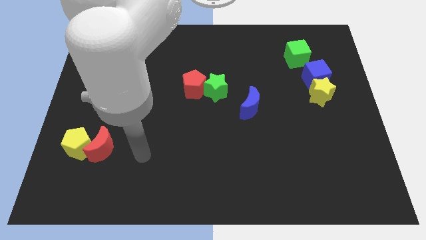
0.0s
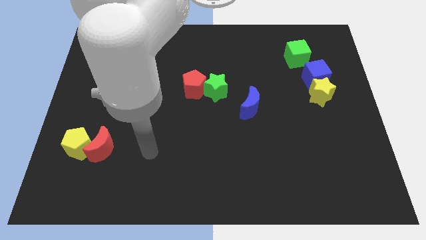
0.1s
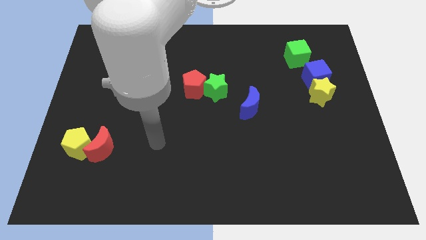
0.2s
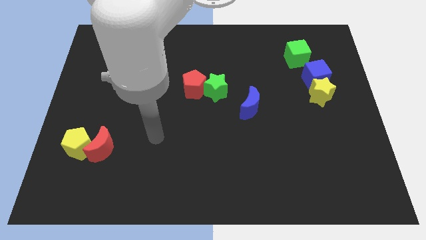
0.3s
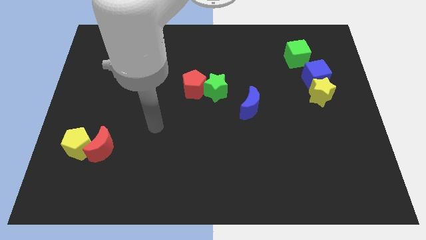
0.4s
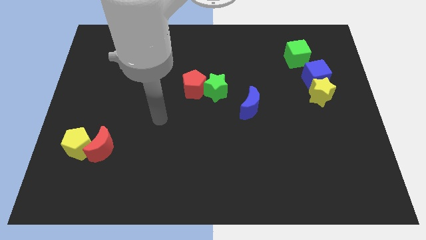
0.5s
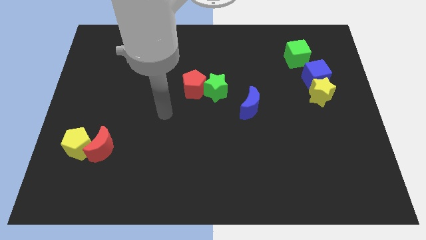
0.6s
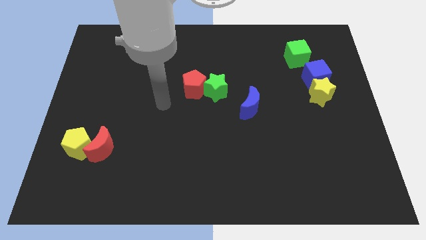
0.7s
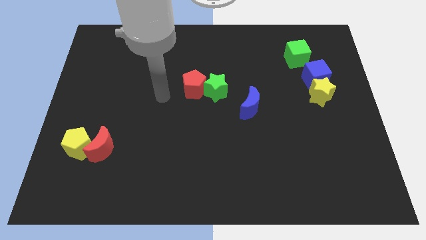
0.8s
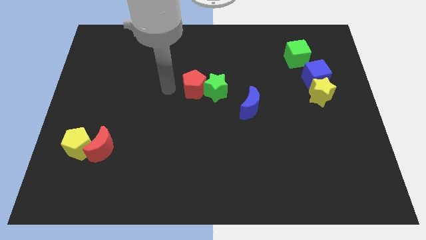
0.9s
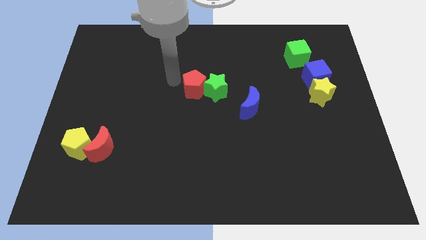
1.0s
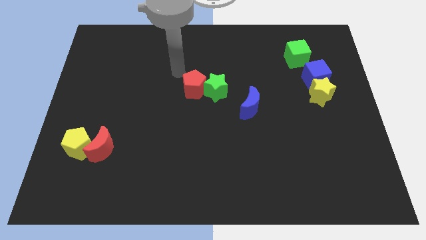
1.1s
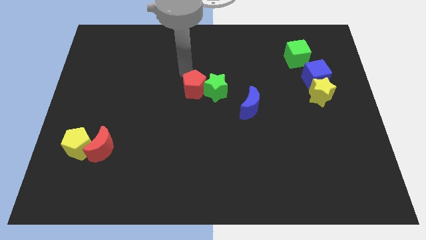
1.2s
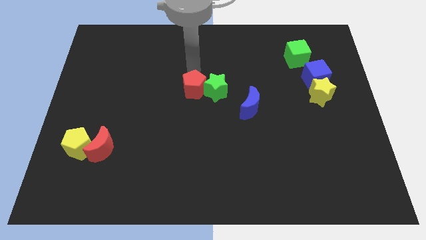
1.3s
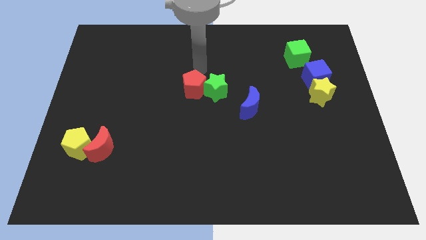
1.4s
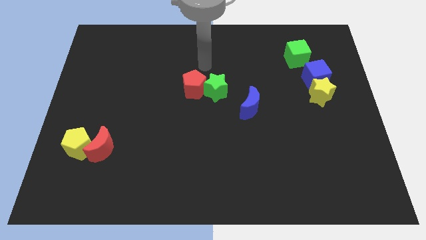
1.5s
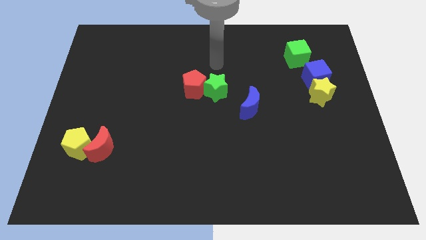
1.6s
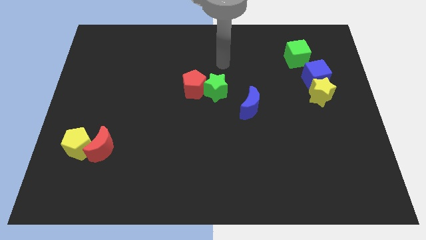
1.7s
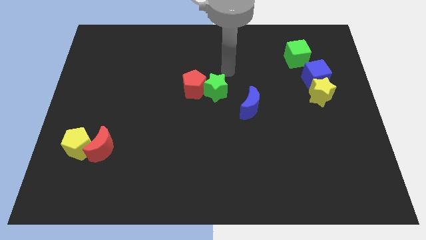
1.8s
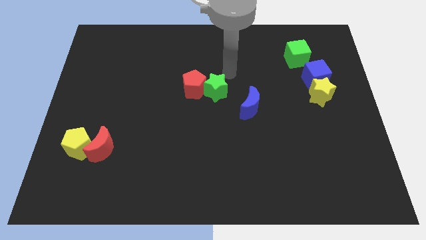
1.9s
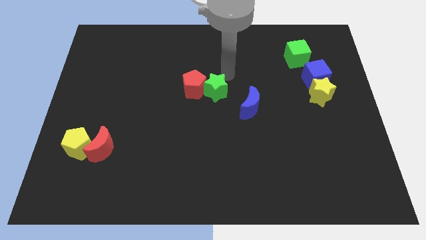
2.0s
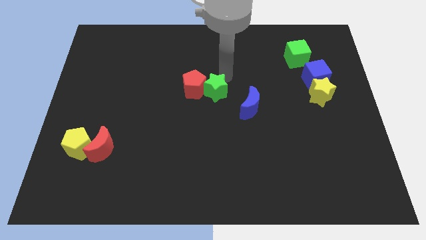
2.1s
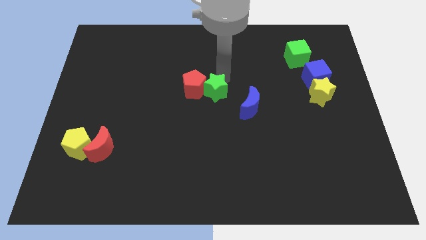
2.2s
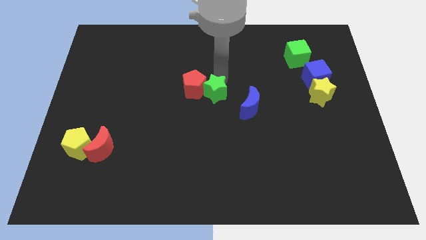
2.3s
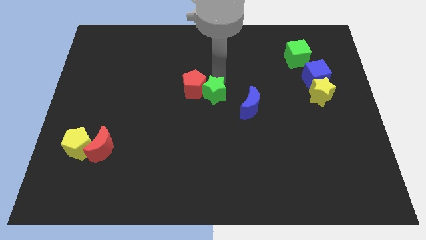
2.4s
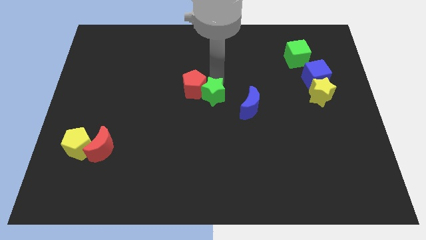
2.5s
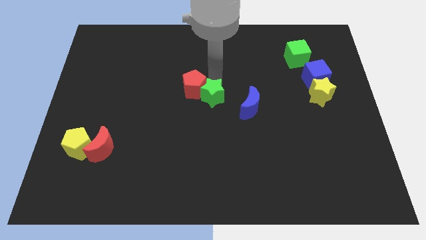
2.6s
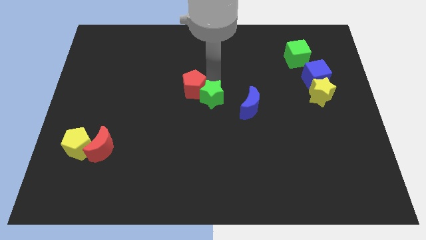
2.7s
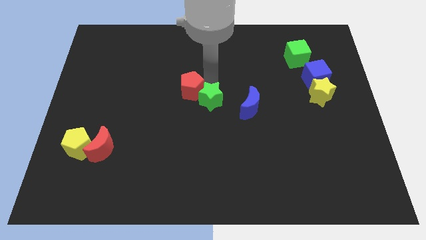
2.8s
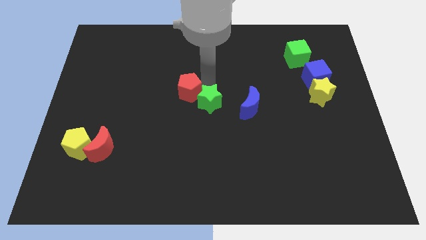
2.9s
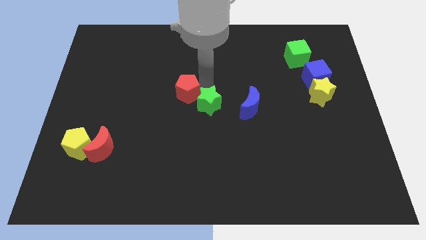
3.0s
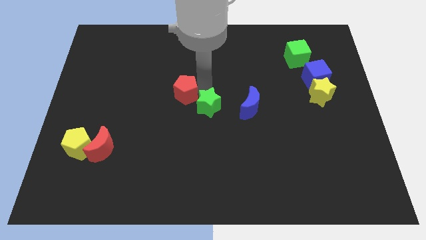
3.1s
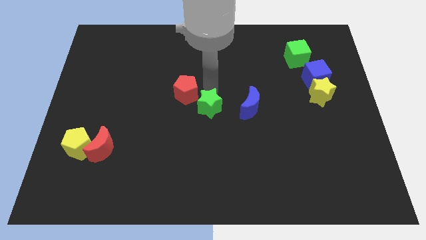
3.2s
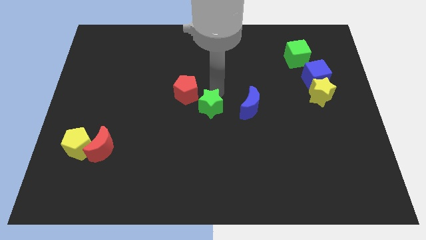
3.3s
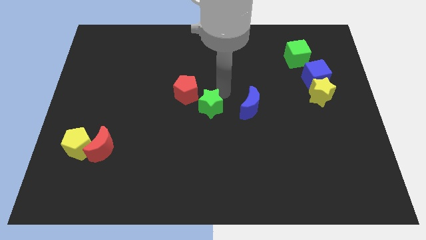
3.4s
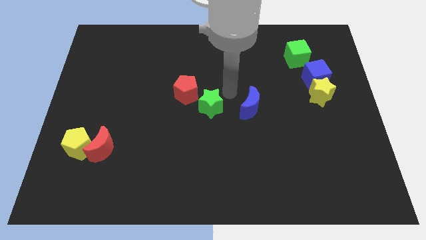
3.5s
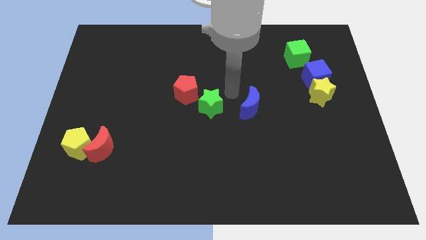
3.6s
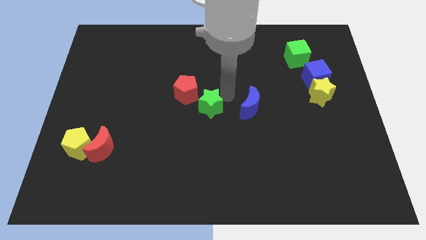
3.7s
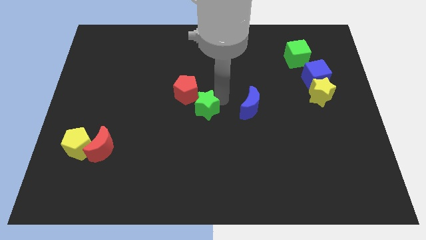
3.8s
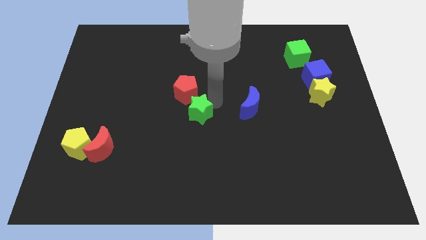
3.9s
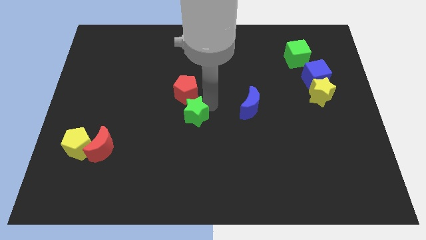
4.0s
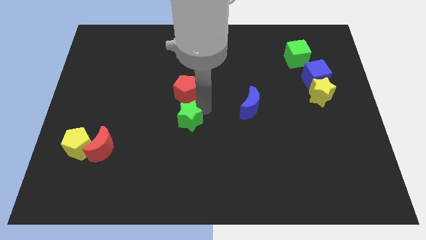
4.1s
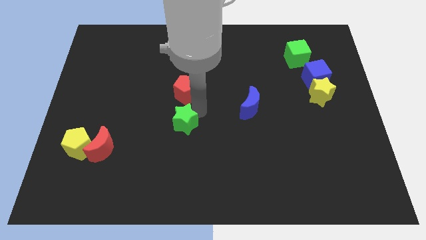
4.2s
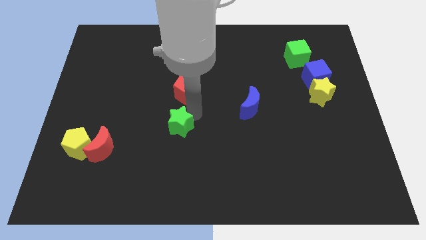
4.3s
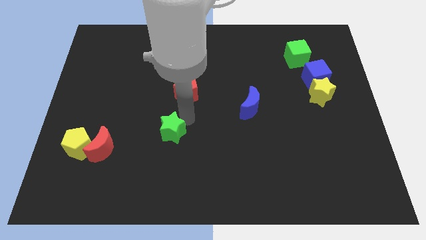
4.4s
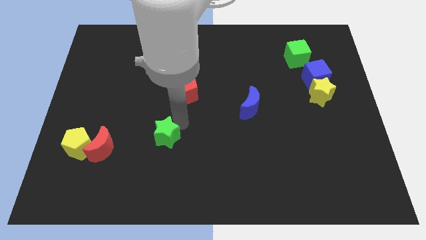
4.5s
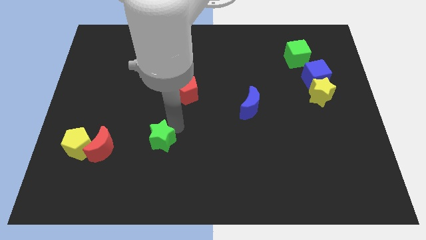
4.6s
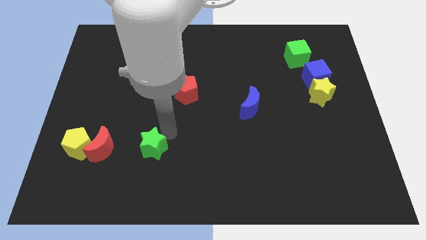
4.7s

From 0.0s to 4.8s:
move the green star down and to the left diagonally

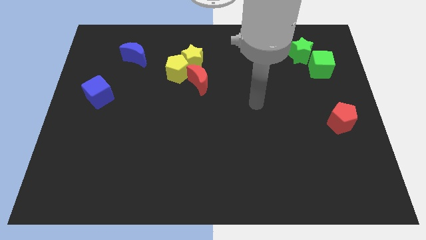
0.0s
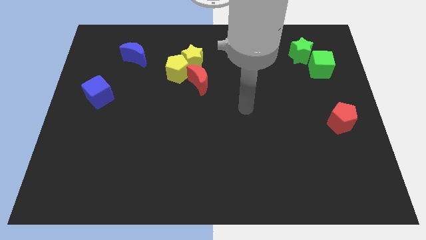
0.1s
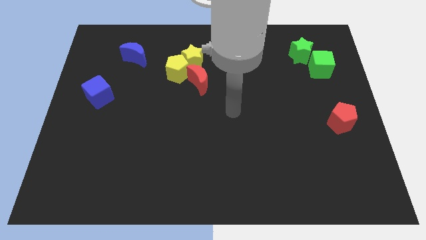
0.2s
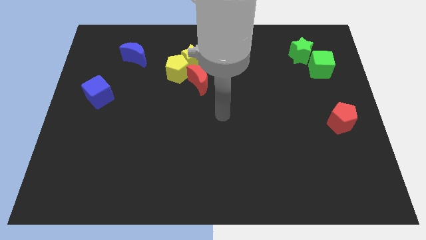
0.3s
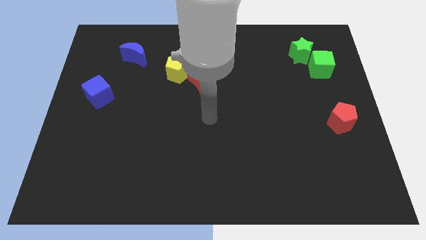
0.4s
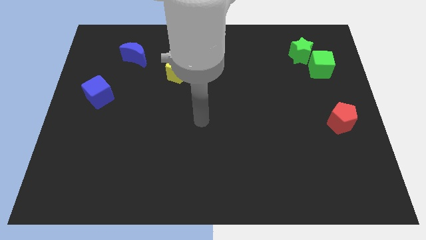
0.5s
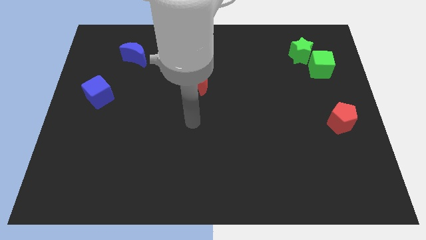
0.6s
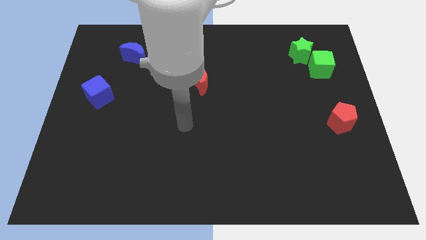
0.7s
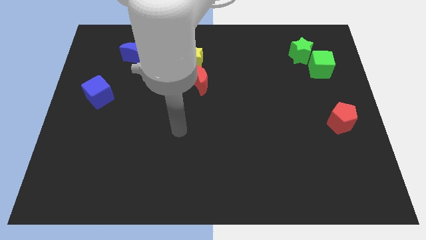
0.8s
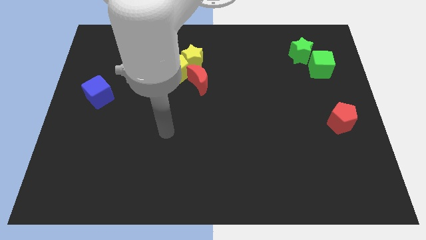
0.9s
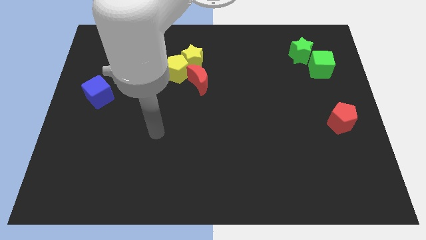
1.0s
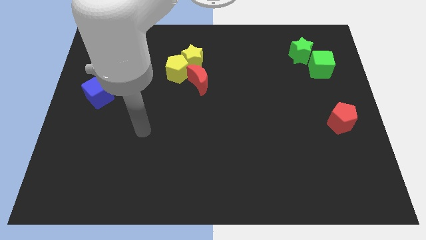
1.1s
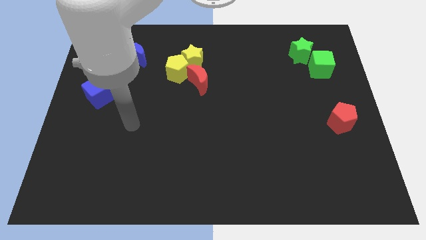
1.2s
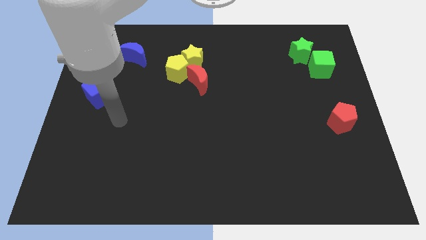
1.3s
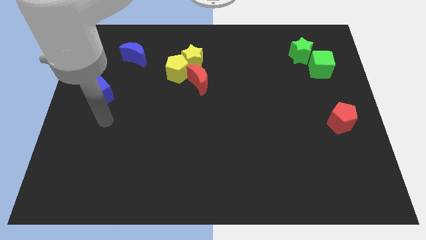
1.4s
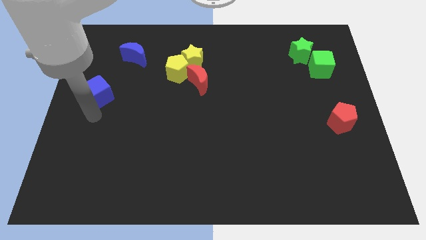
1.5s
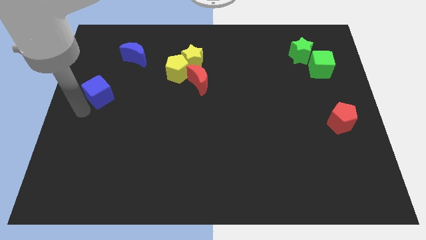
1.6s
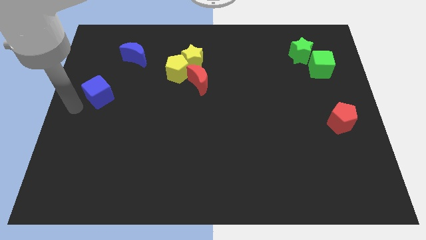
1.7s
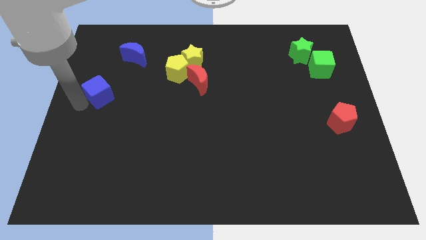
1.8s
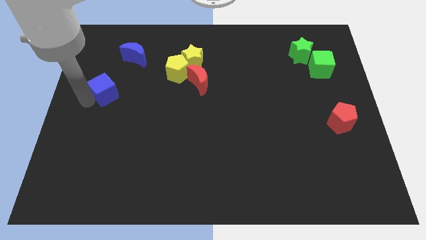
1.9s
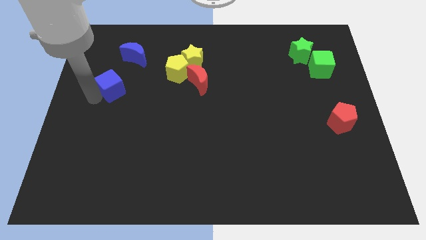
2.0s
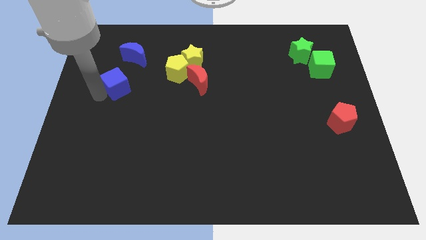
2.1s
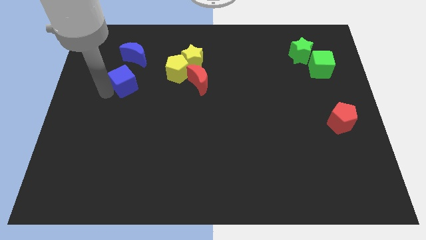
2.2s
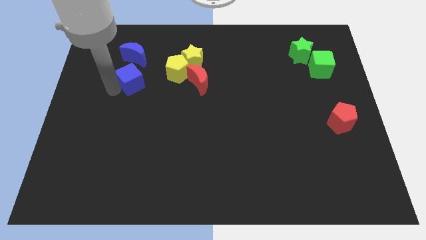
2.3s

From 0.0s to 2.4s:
push the blue cube slightly diagonally up and to the right

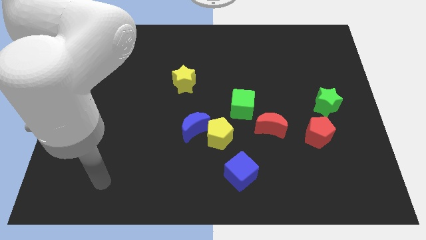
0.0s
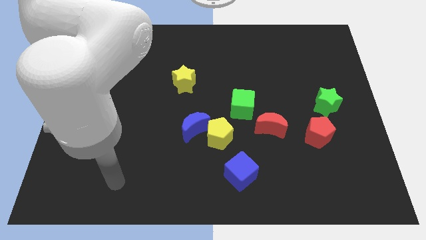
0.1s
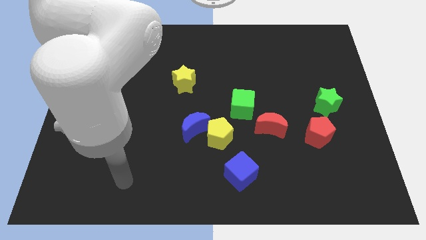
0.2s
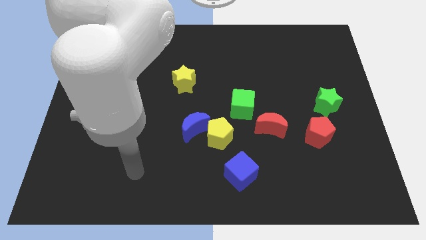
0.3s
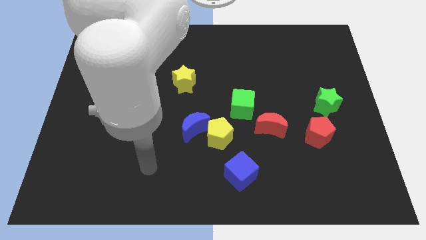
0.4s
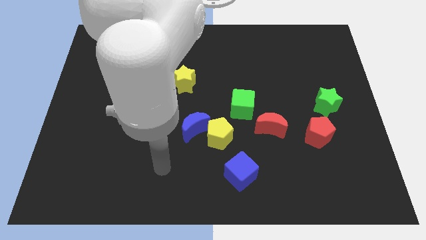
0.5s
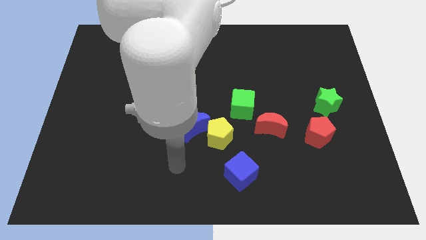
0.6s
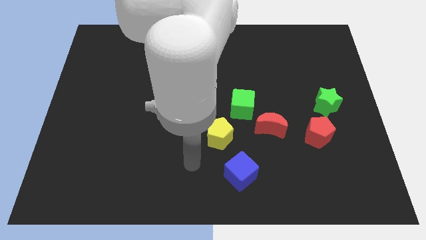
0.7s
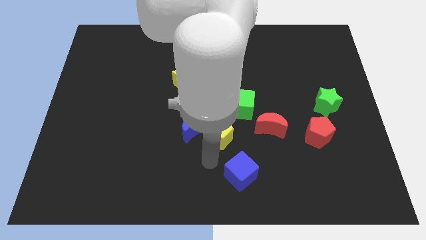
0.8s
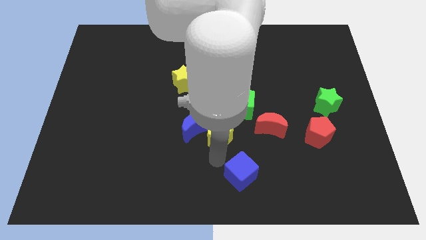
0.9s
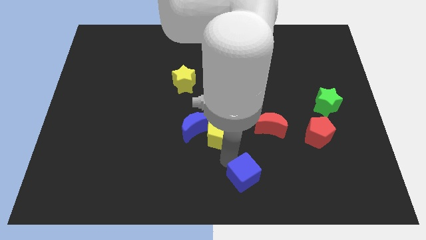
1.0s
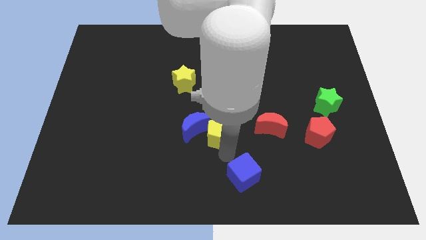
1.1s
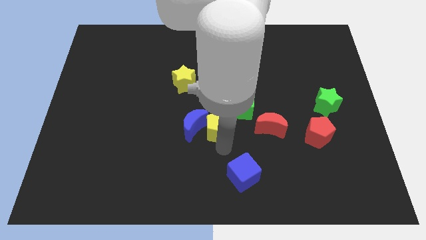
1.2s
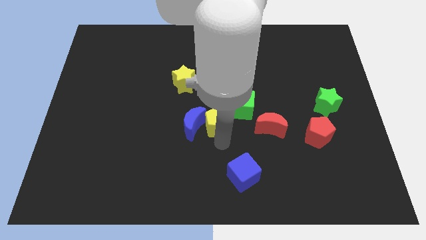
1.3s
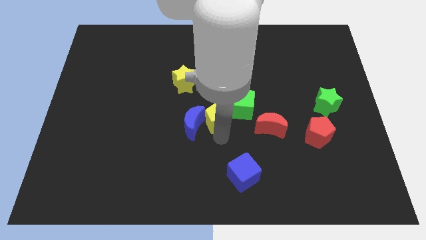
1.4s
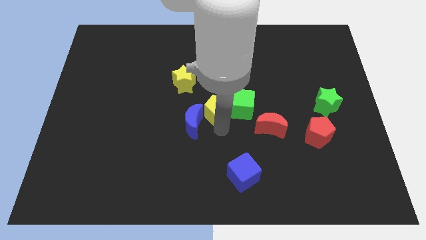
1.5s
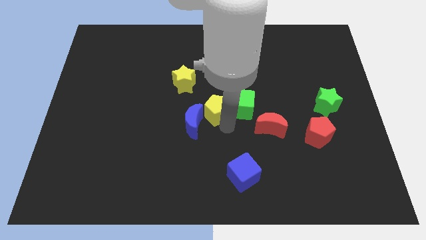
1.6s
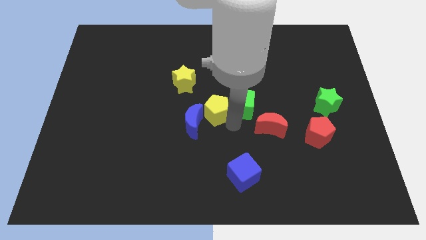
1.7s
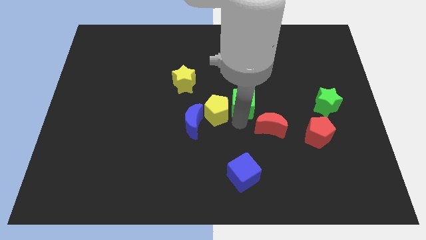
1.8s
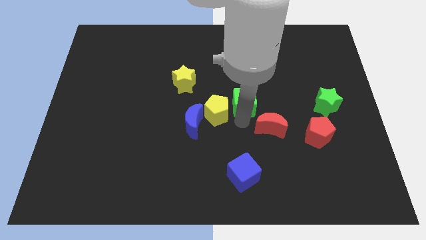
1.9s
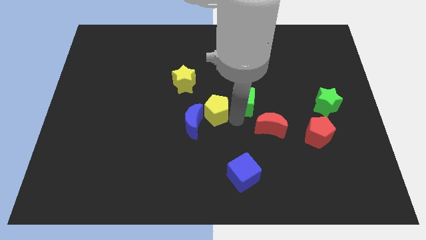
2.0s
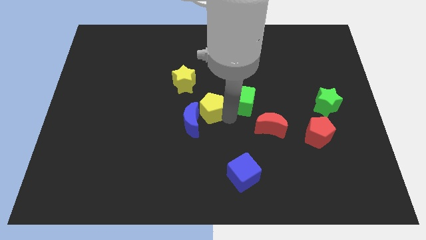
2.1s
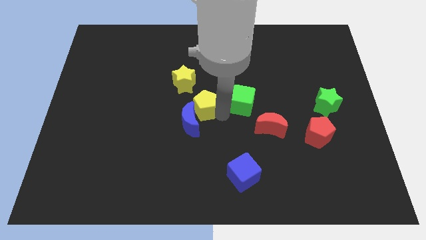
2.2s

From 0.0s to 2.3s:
slightly move the yellow pentagon up and then left
